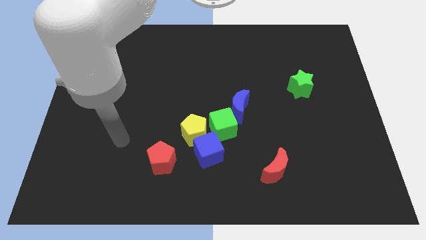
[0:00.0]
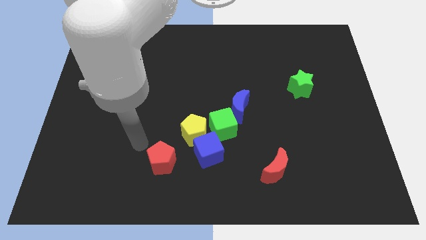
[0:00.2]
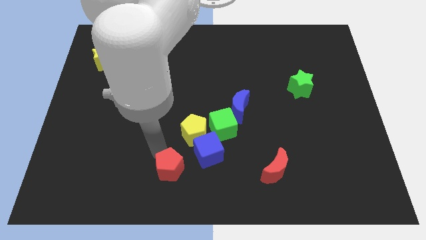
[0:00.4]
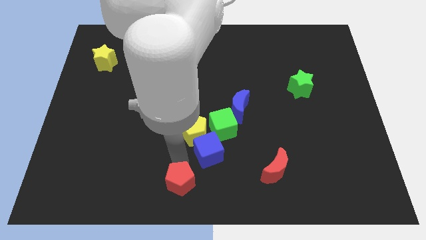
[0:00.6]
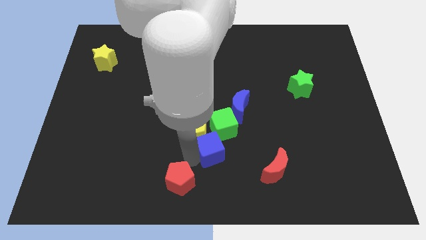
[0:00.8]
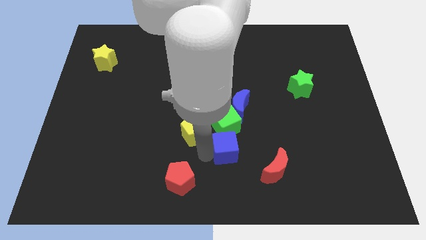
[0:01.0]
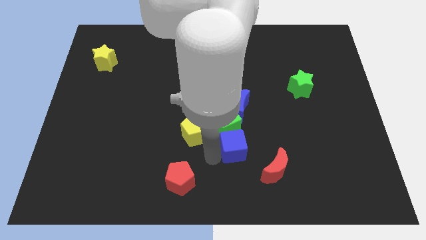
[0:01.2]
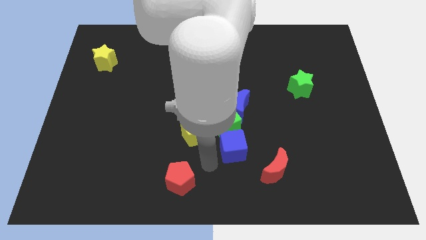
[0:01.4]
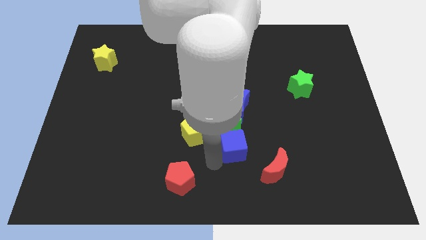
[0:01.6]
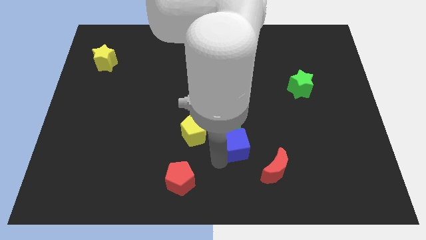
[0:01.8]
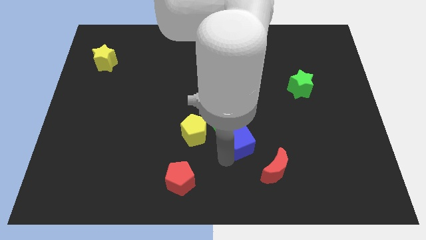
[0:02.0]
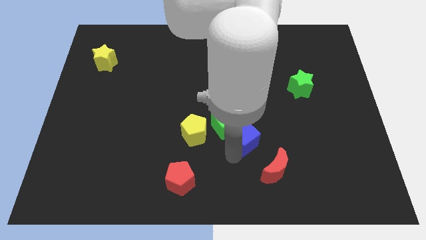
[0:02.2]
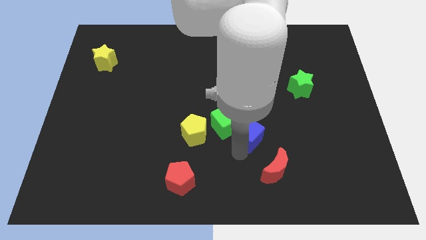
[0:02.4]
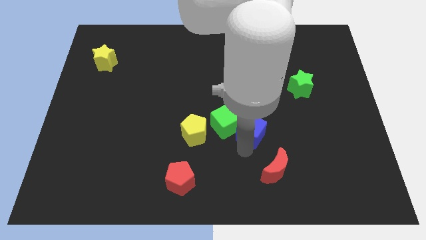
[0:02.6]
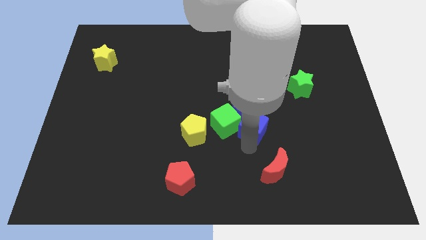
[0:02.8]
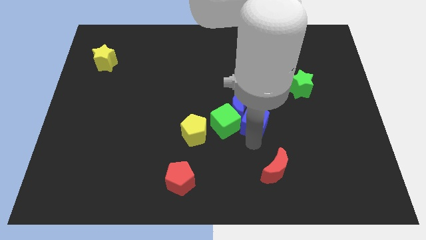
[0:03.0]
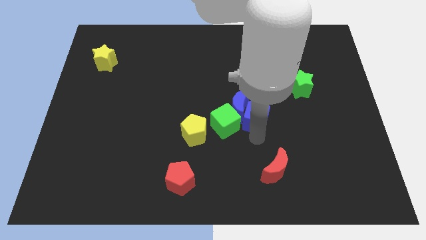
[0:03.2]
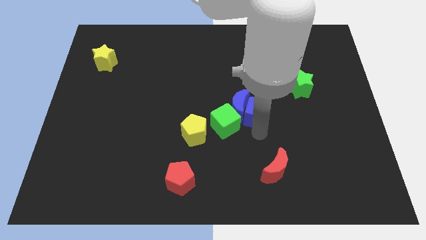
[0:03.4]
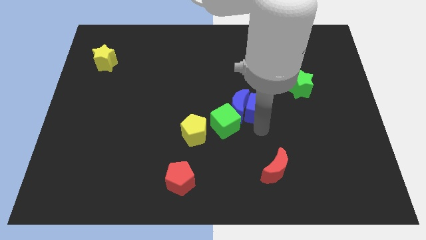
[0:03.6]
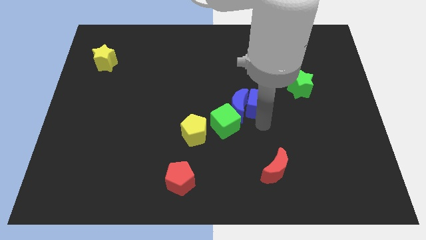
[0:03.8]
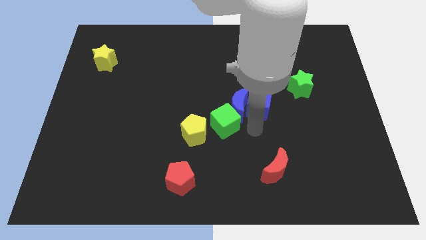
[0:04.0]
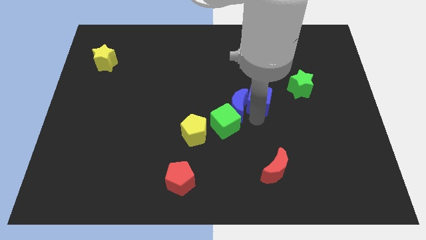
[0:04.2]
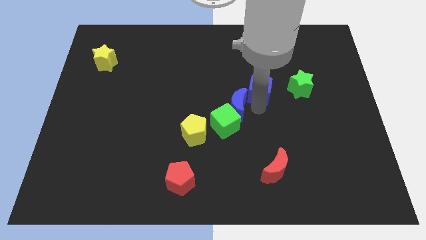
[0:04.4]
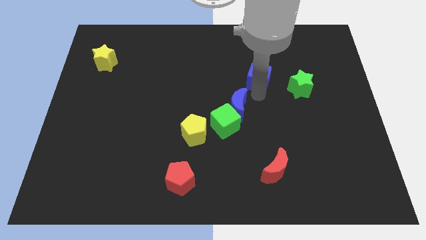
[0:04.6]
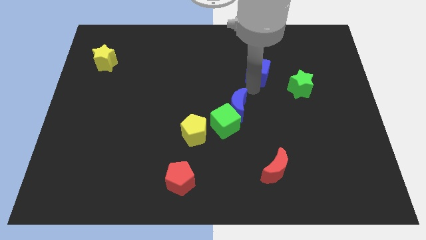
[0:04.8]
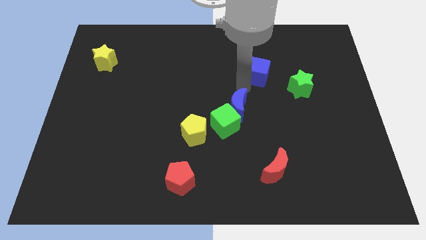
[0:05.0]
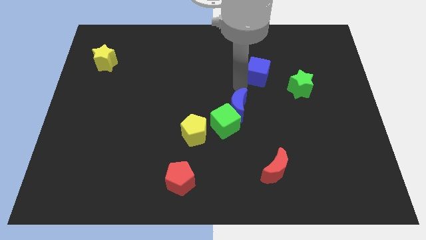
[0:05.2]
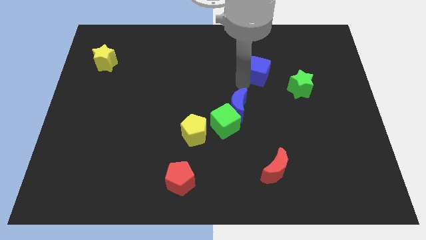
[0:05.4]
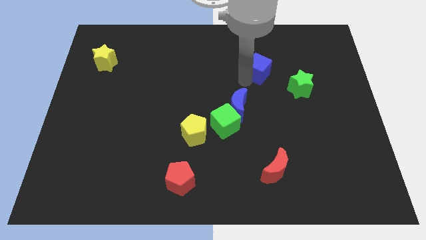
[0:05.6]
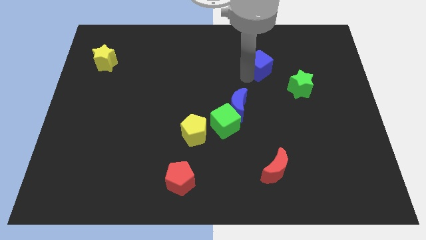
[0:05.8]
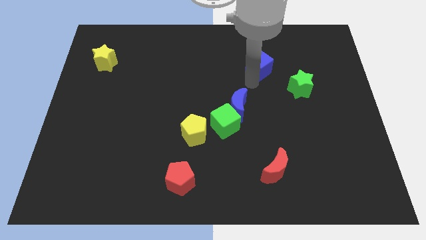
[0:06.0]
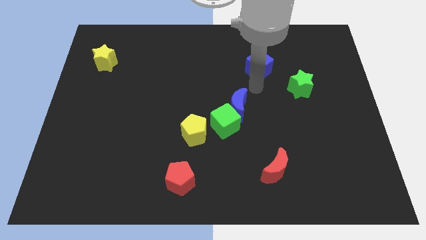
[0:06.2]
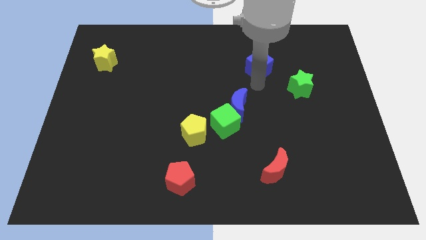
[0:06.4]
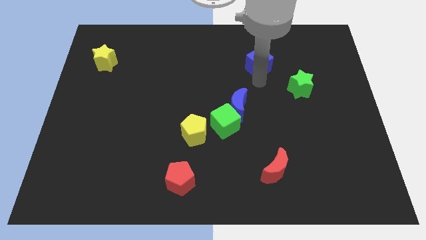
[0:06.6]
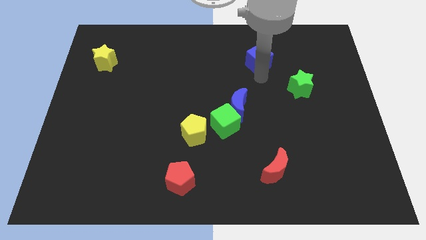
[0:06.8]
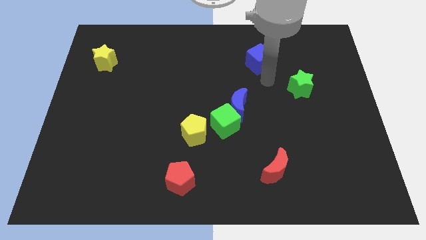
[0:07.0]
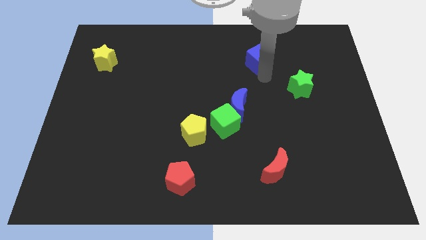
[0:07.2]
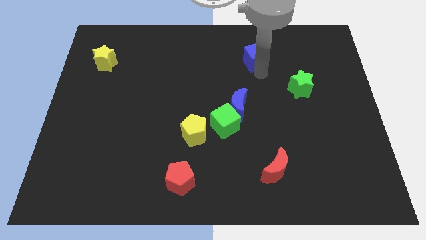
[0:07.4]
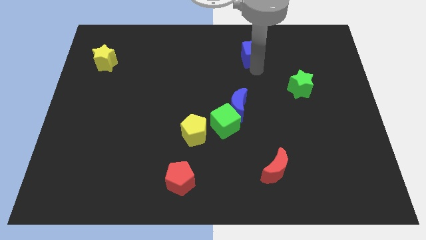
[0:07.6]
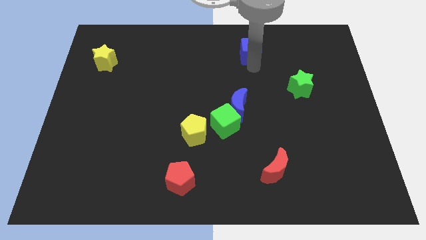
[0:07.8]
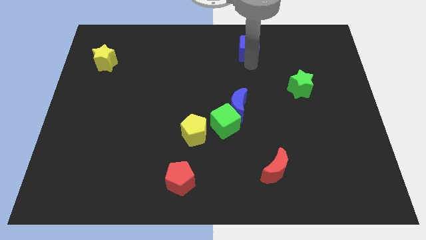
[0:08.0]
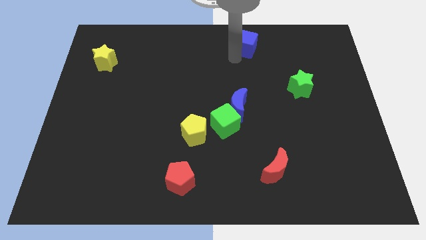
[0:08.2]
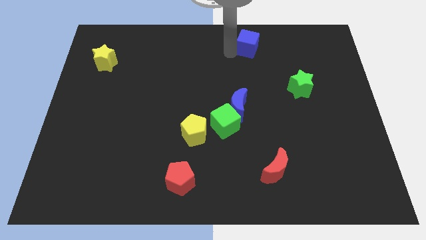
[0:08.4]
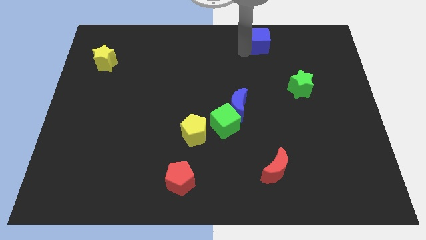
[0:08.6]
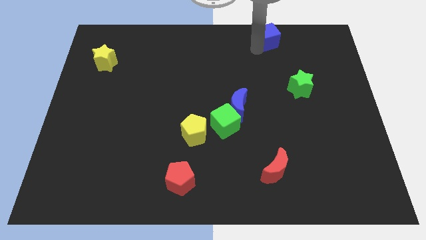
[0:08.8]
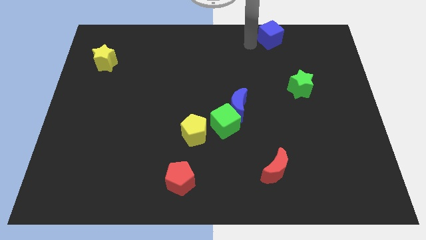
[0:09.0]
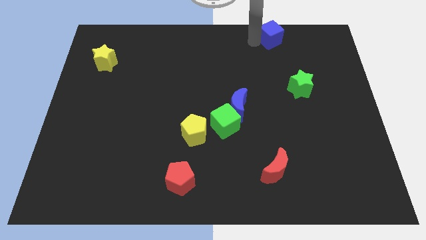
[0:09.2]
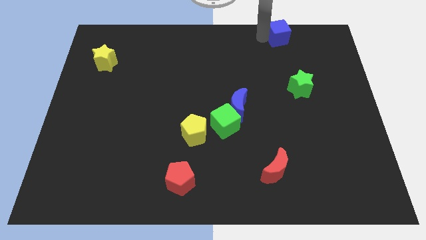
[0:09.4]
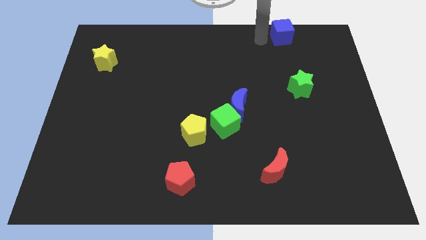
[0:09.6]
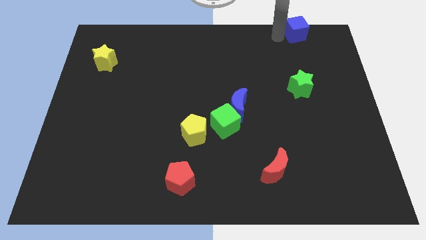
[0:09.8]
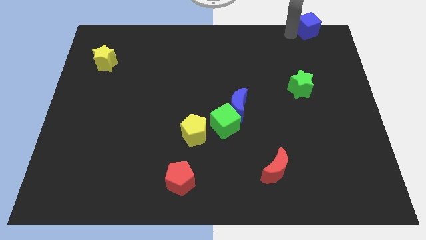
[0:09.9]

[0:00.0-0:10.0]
push the blue cube to the top right of the board

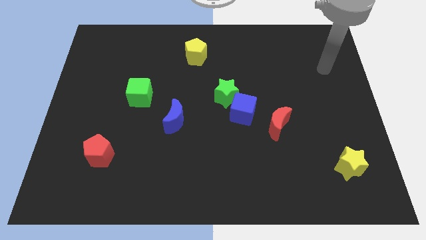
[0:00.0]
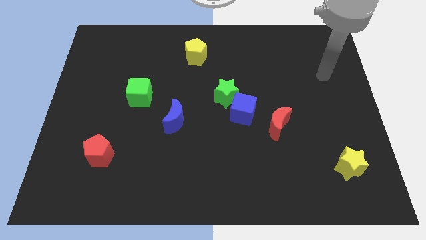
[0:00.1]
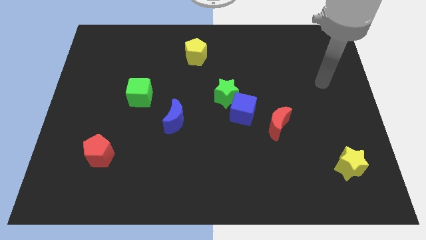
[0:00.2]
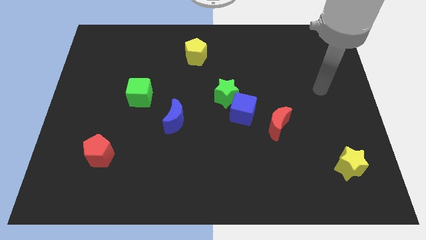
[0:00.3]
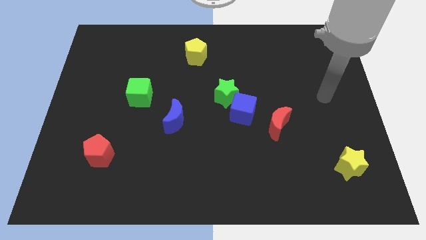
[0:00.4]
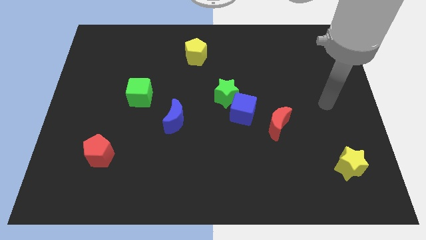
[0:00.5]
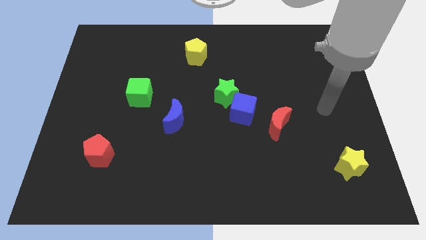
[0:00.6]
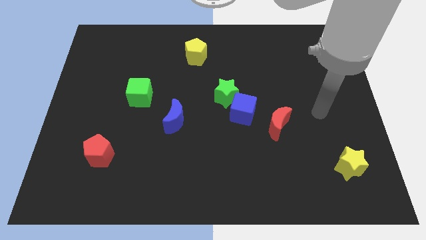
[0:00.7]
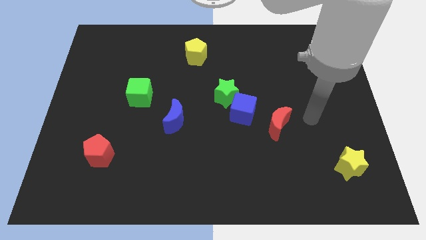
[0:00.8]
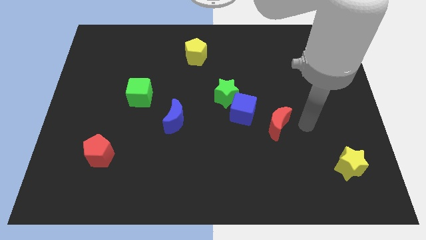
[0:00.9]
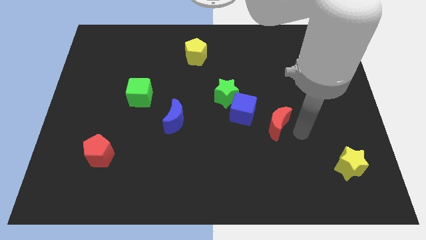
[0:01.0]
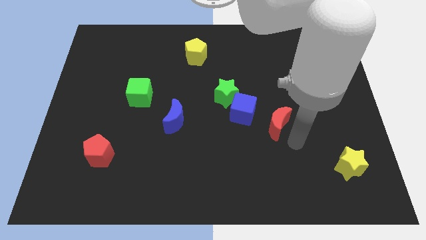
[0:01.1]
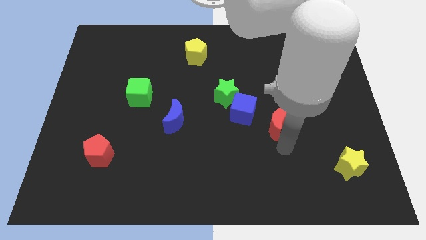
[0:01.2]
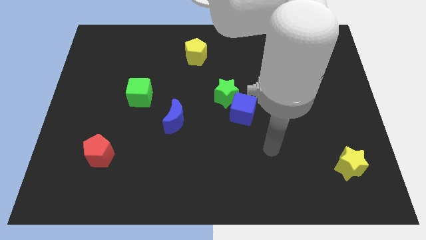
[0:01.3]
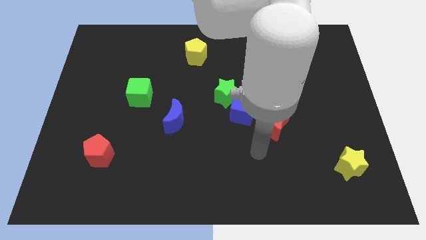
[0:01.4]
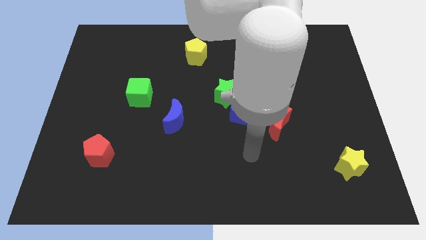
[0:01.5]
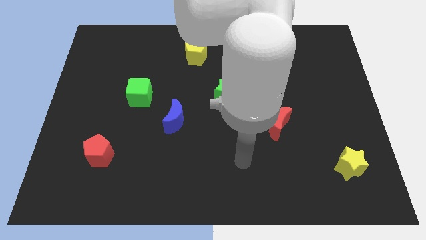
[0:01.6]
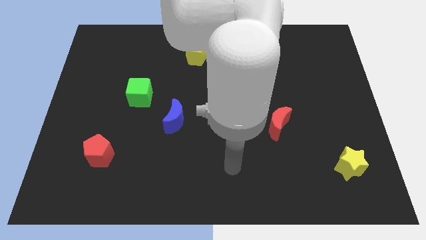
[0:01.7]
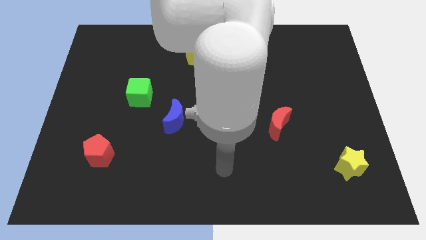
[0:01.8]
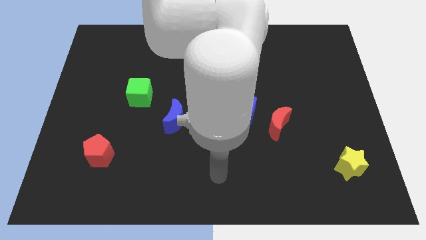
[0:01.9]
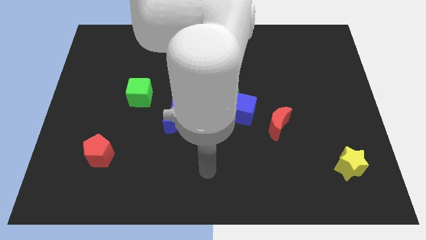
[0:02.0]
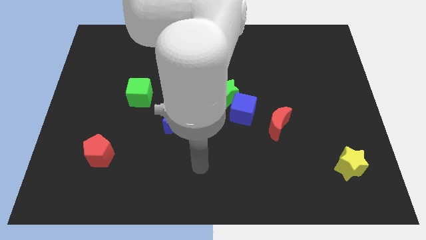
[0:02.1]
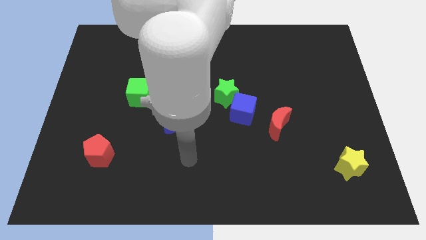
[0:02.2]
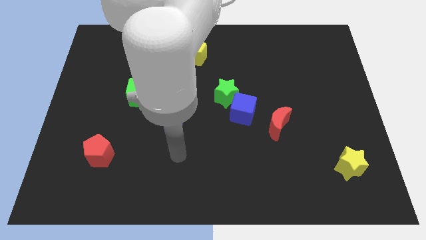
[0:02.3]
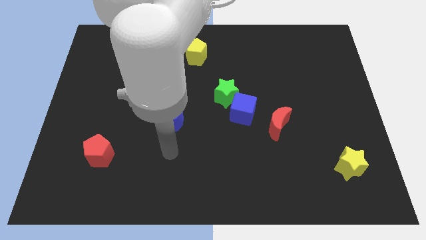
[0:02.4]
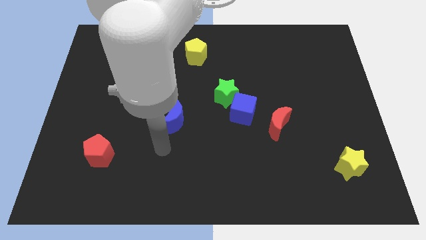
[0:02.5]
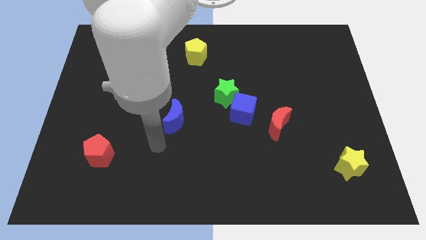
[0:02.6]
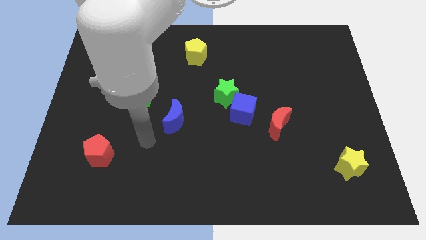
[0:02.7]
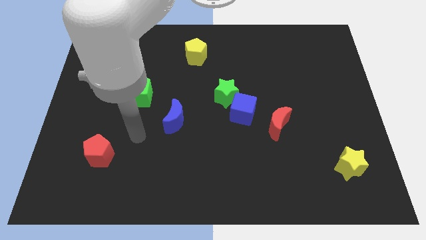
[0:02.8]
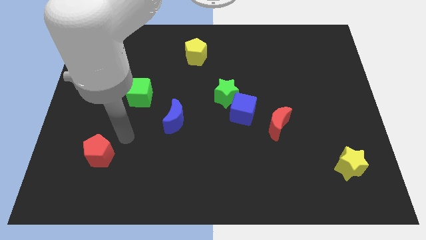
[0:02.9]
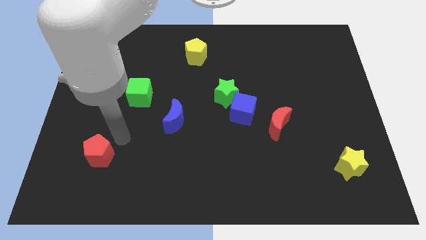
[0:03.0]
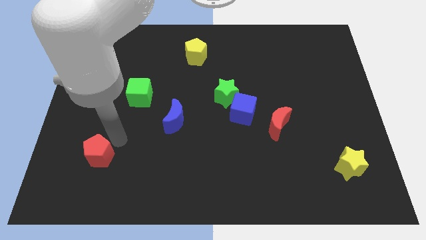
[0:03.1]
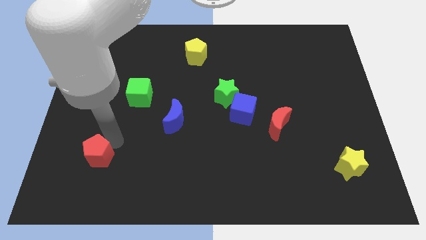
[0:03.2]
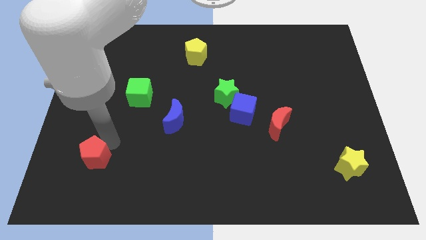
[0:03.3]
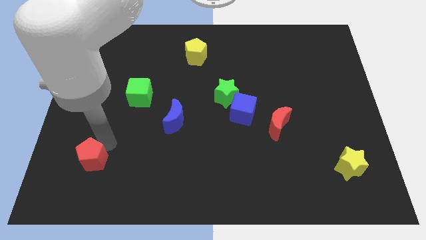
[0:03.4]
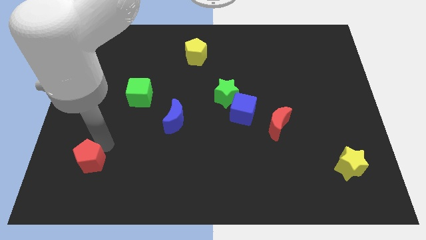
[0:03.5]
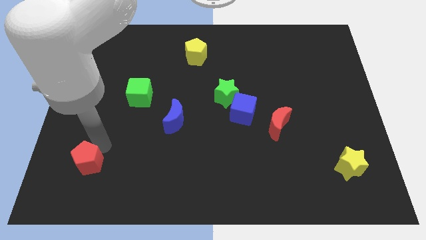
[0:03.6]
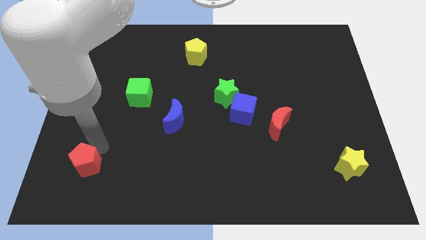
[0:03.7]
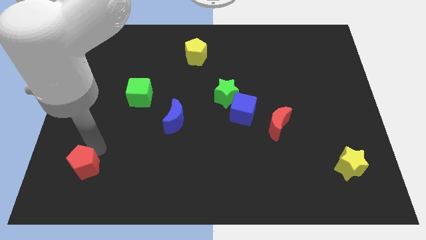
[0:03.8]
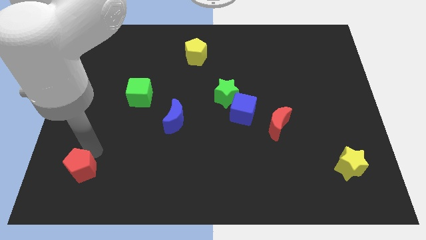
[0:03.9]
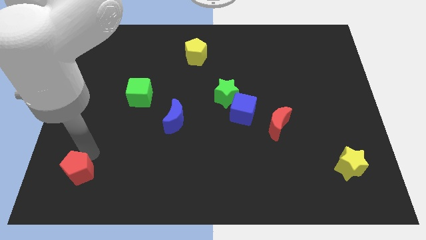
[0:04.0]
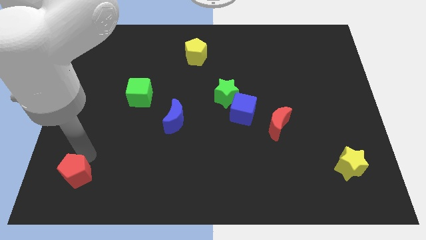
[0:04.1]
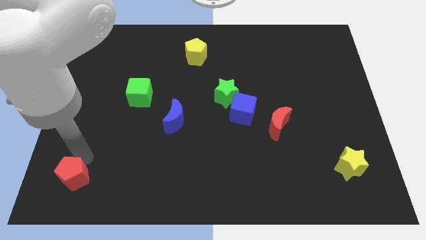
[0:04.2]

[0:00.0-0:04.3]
slide the red pentagon to the bottom left corner
